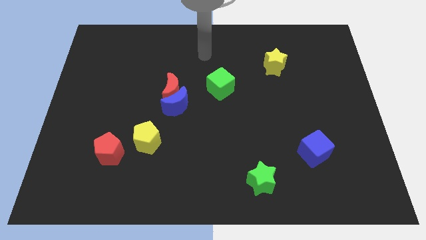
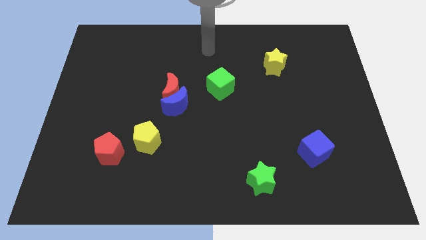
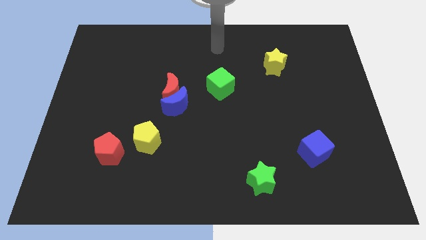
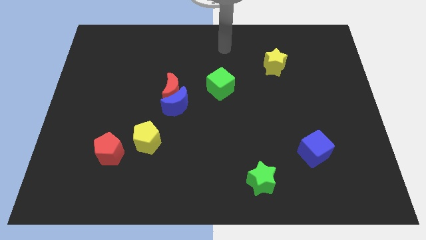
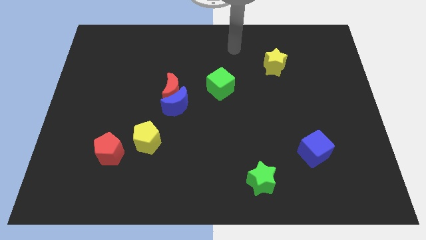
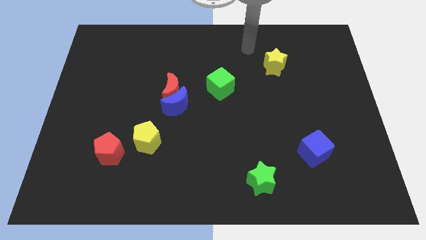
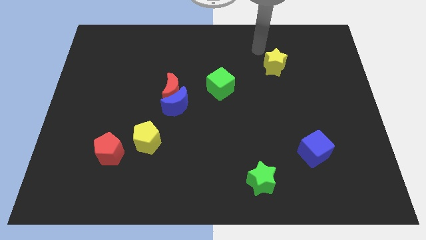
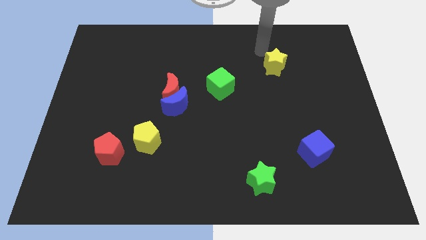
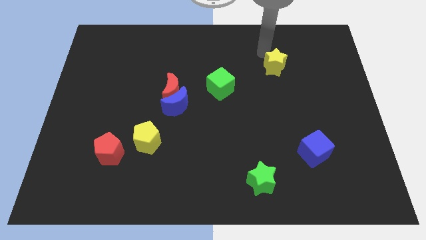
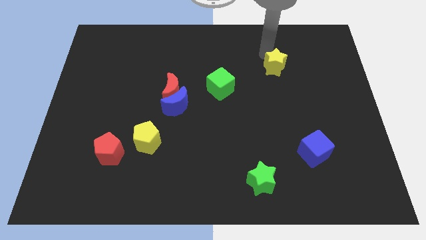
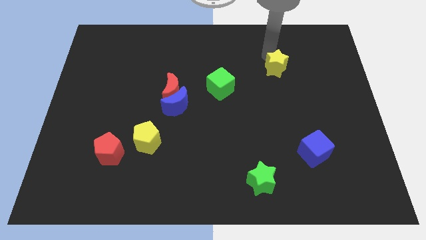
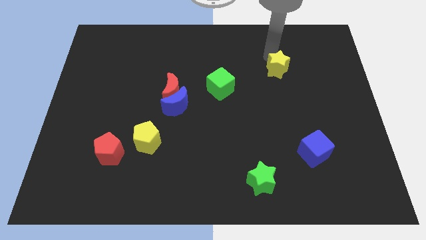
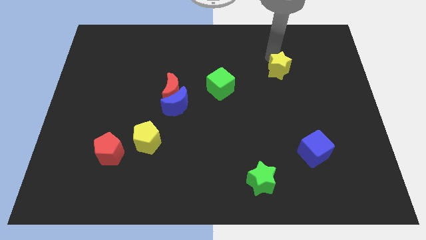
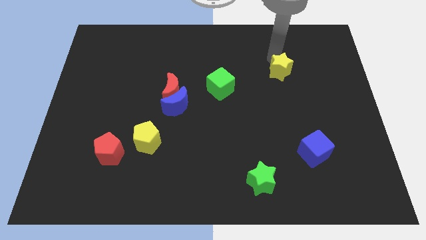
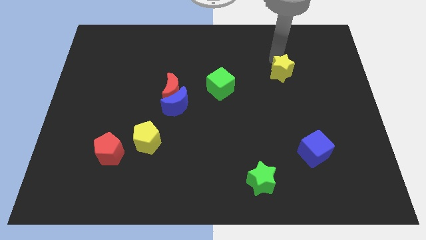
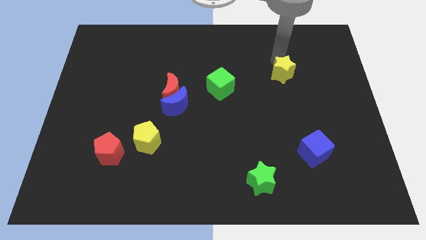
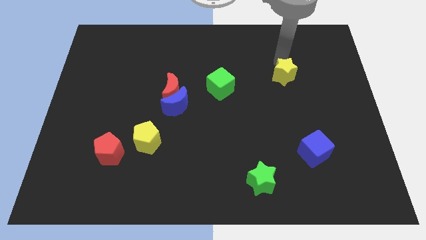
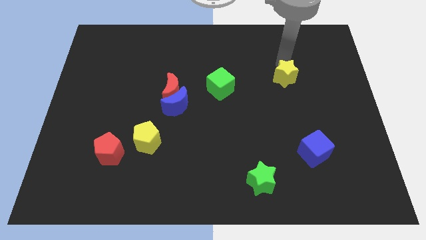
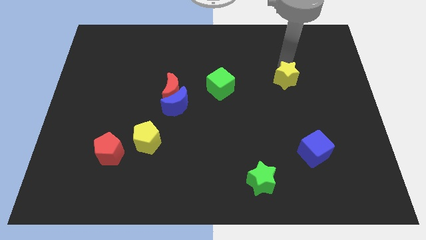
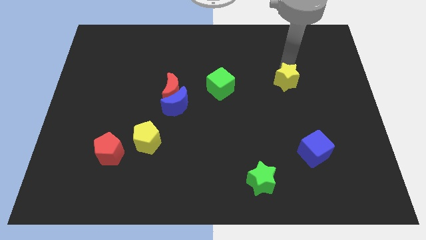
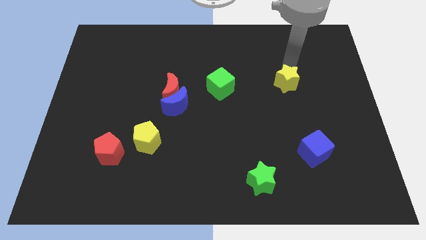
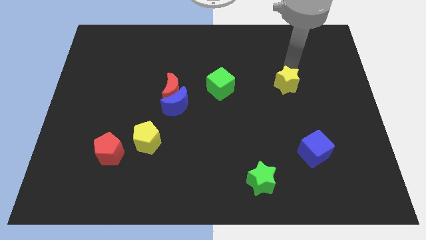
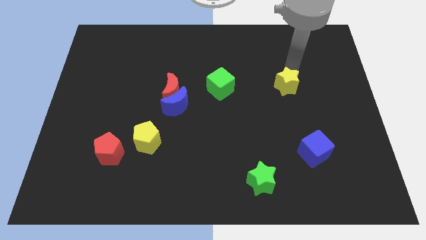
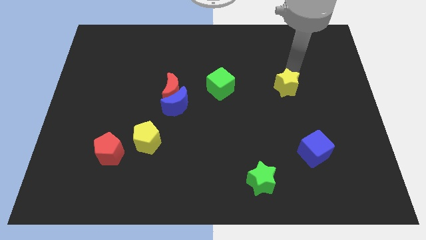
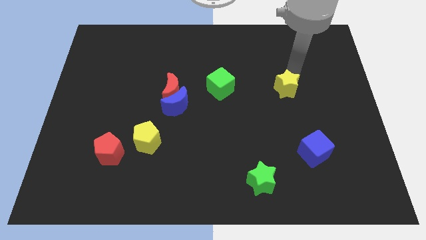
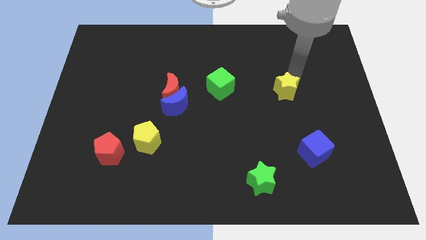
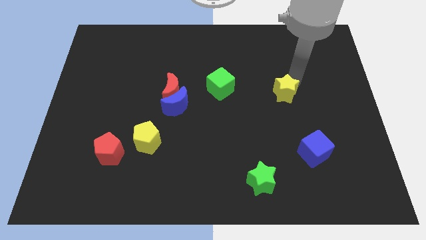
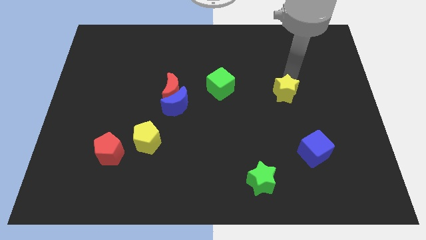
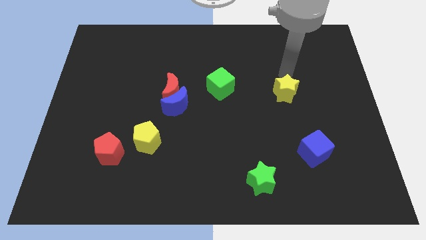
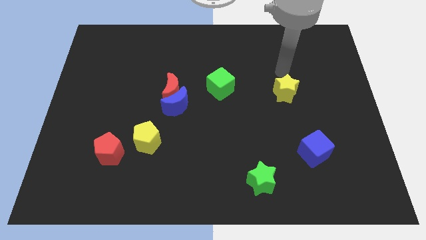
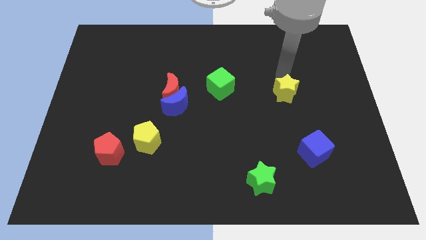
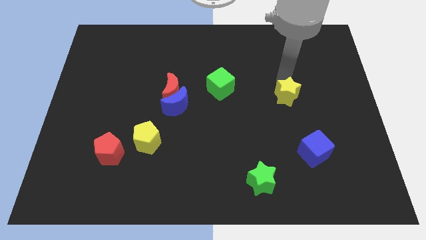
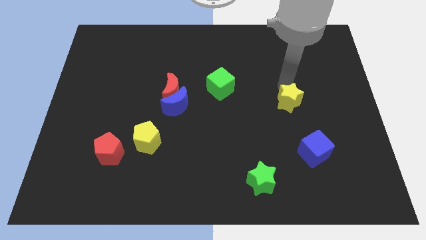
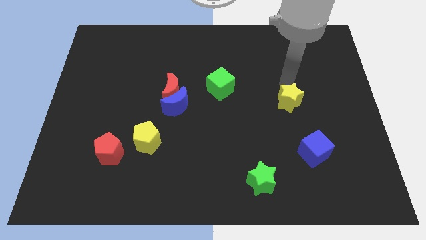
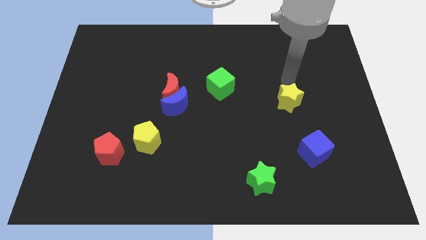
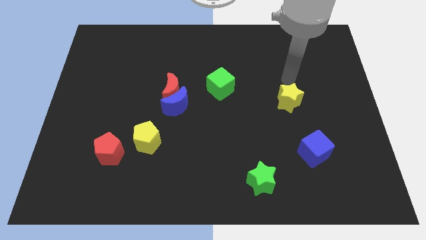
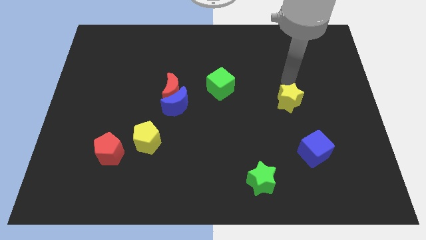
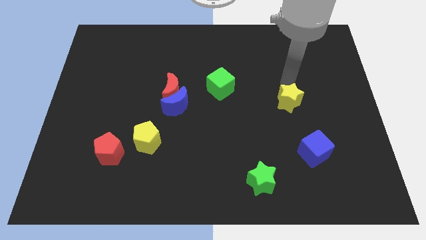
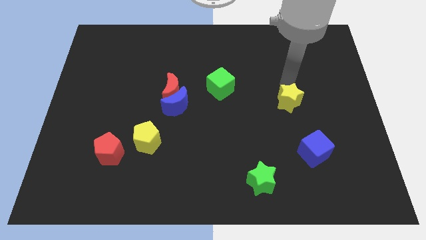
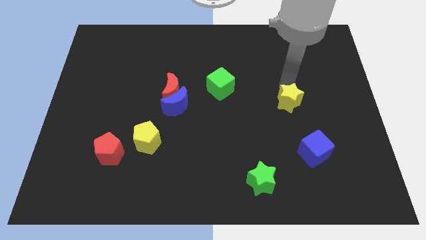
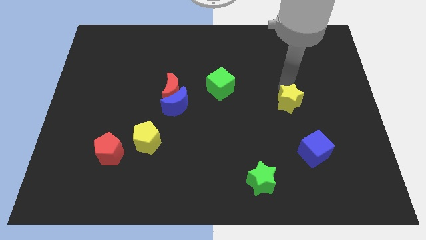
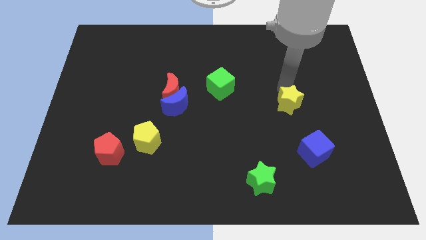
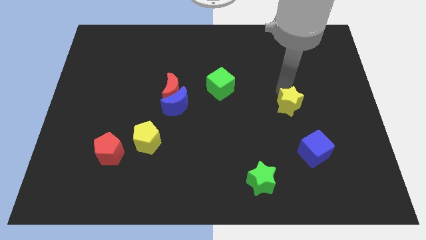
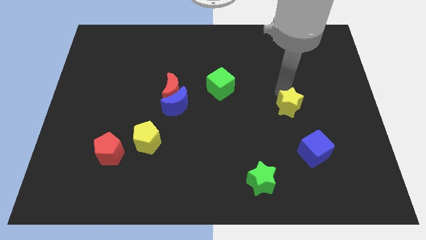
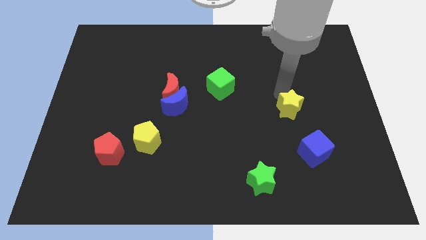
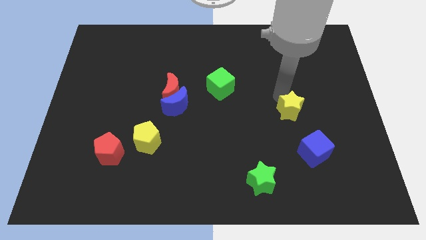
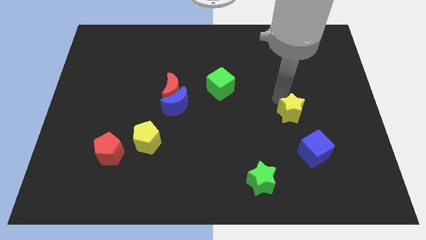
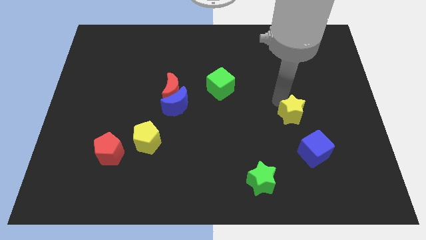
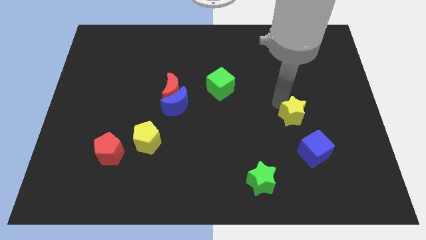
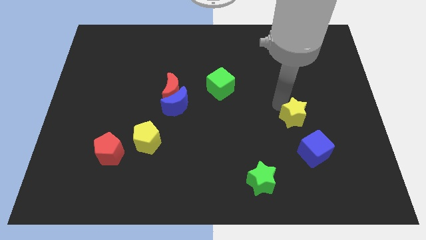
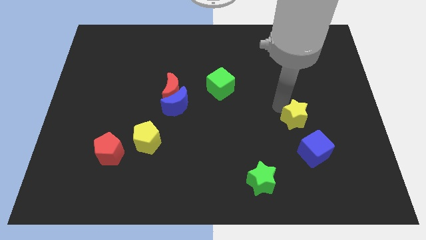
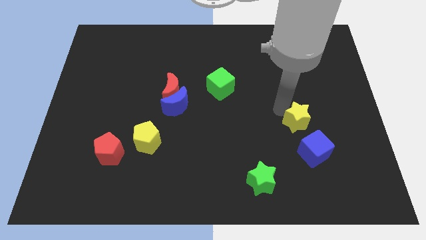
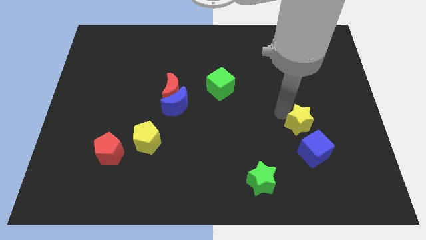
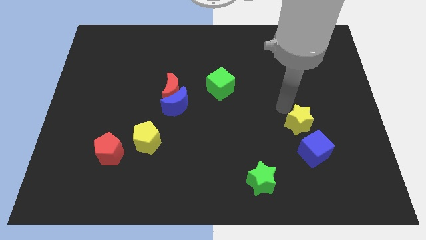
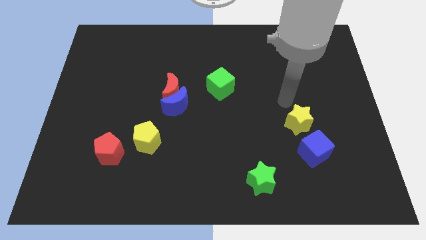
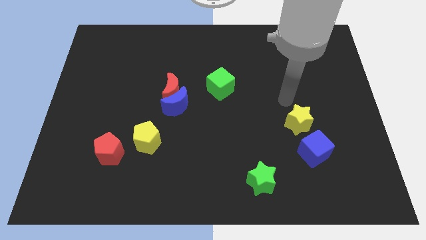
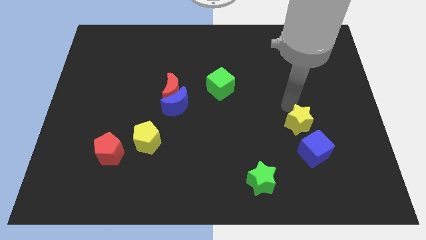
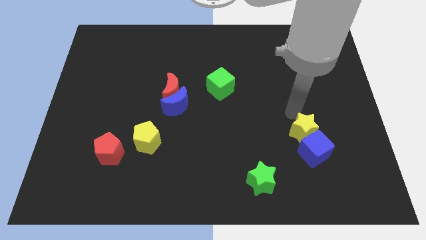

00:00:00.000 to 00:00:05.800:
put the yellow star towards the blue cube

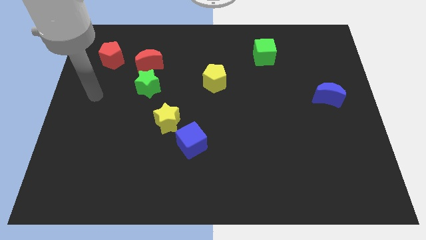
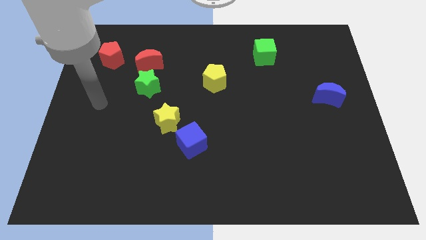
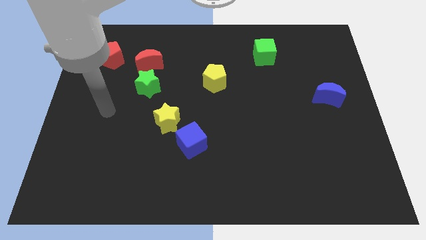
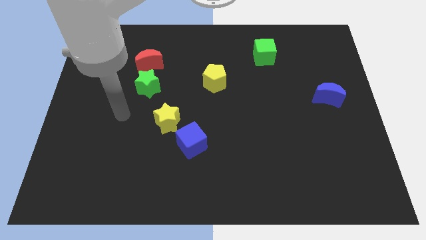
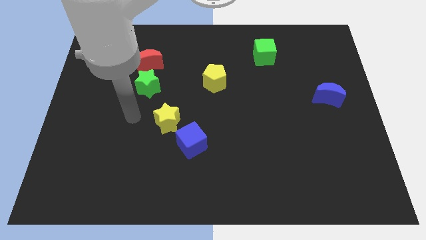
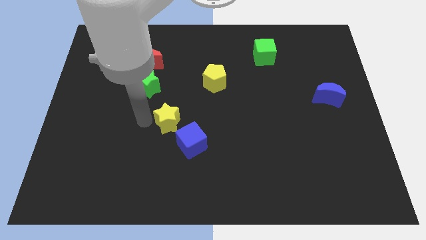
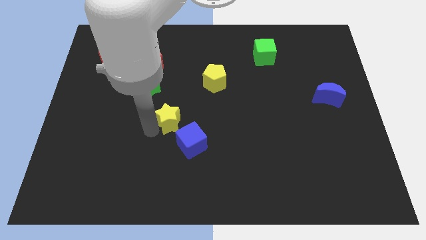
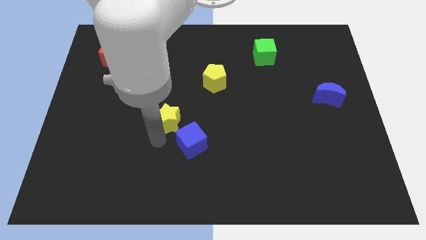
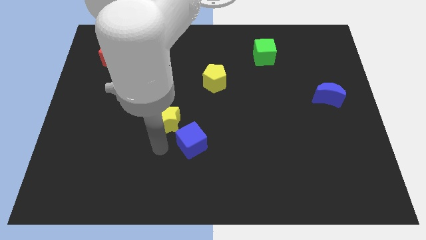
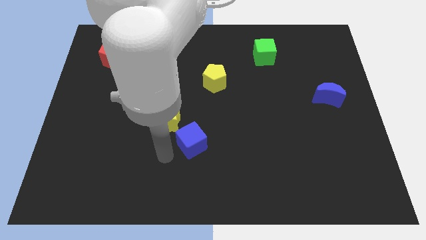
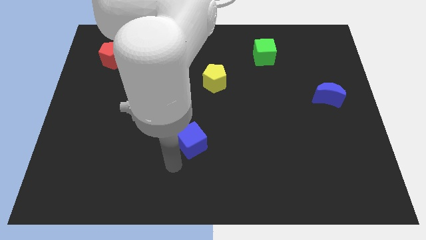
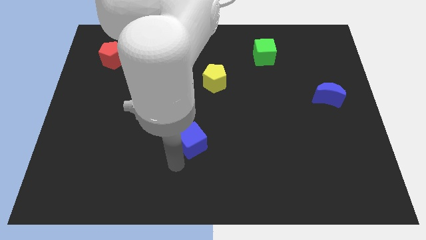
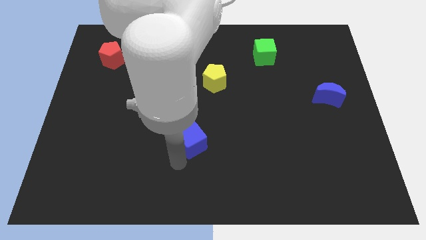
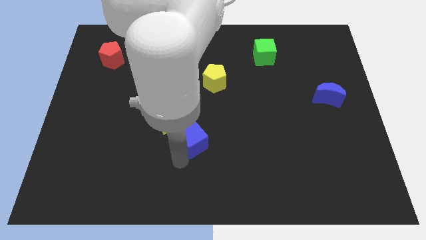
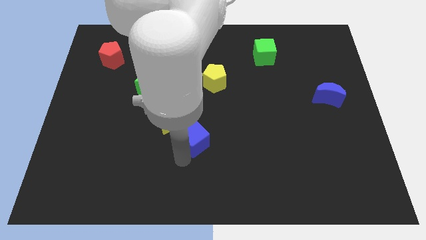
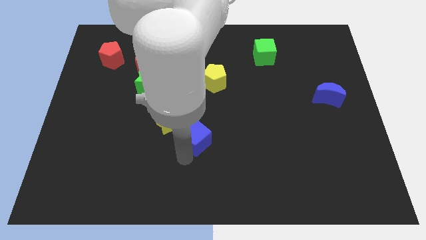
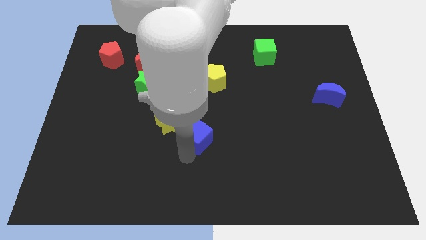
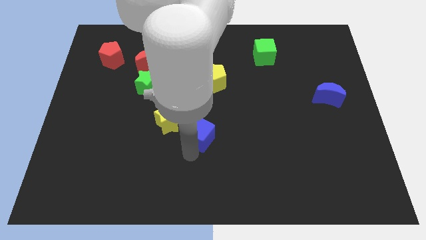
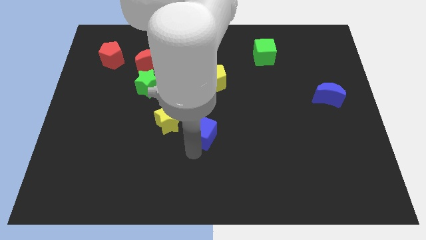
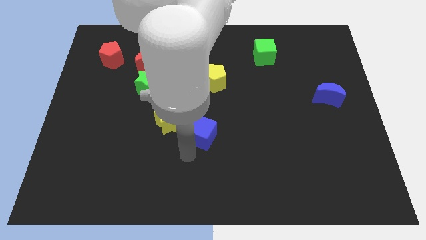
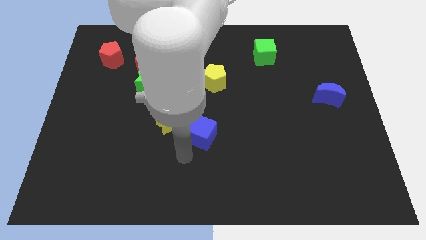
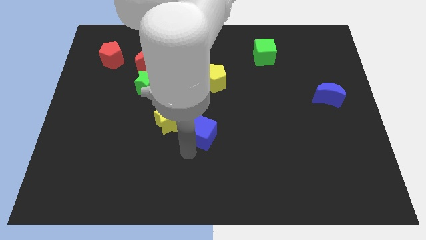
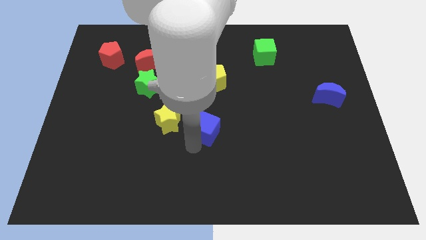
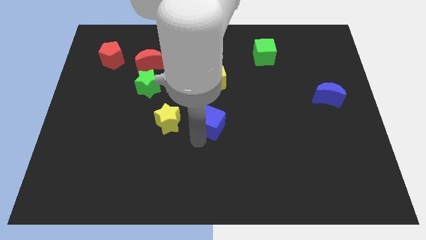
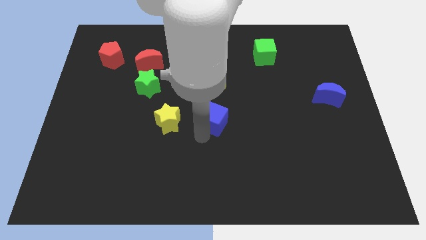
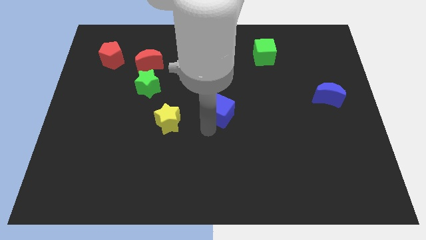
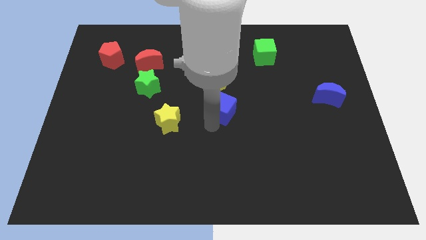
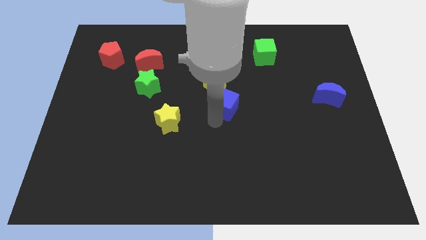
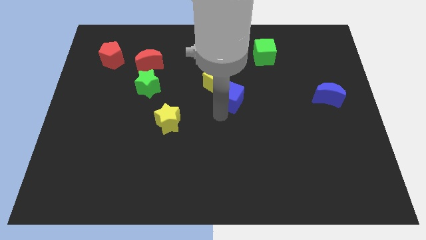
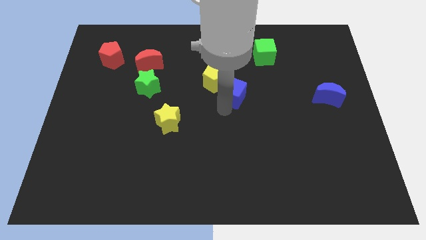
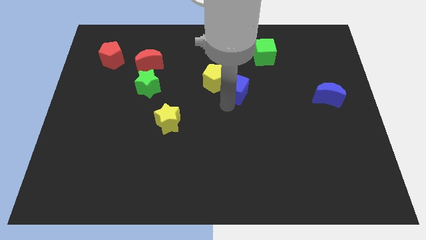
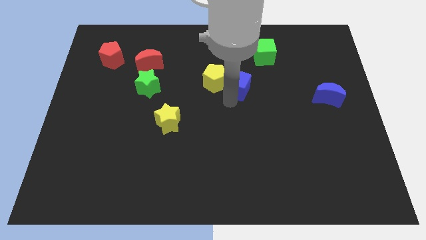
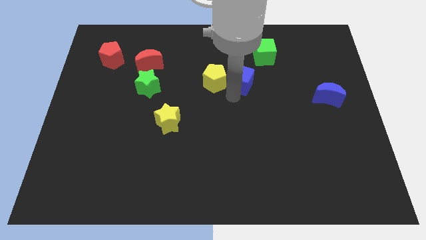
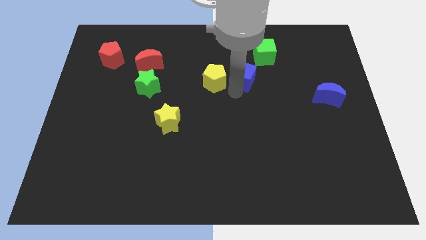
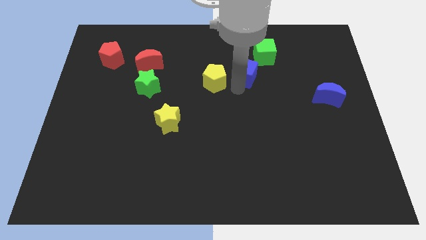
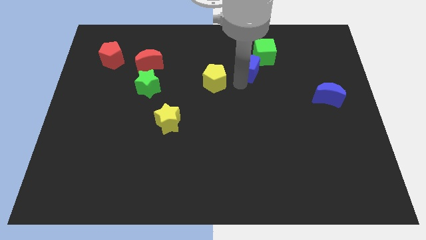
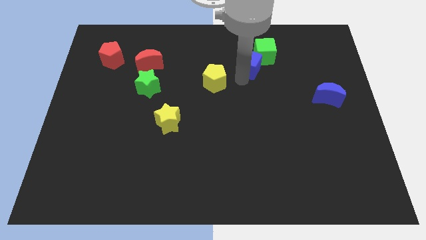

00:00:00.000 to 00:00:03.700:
put the blue cube to the green cube
